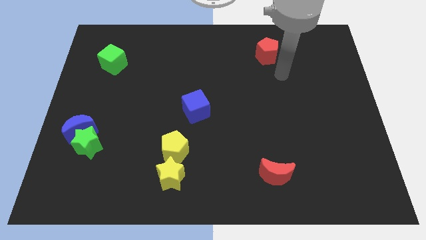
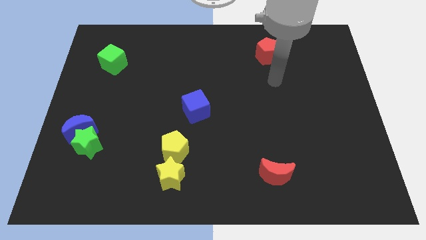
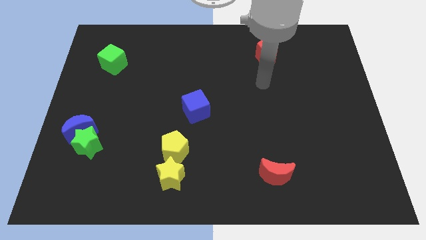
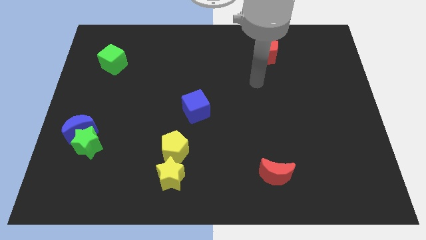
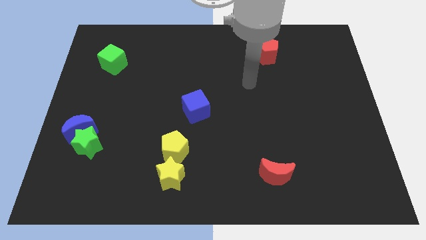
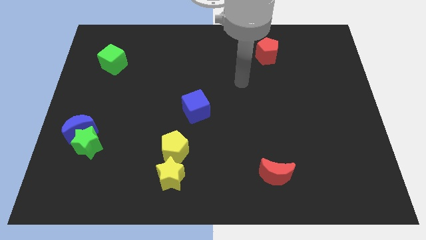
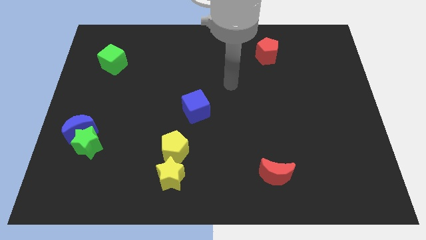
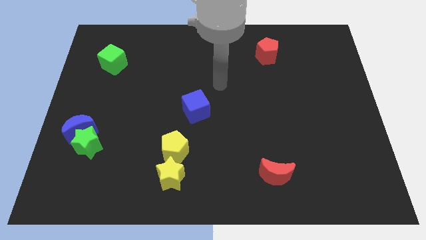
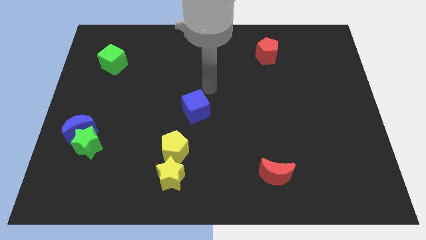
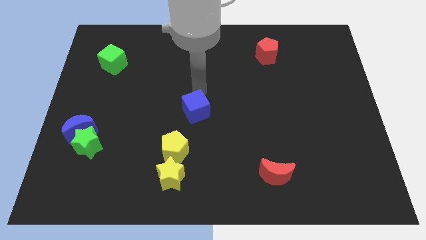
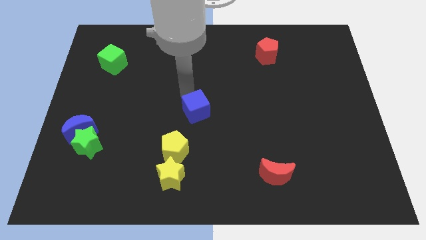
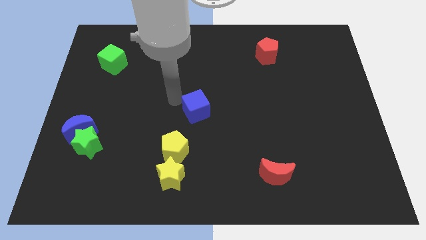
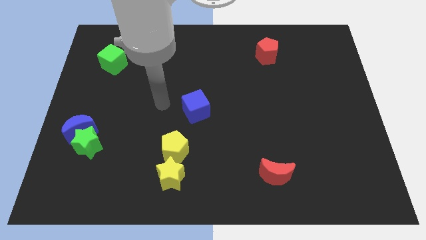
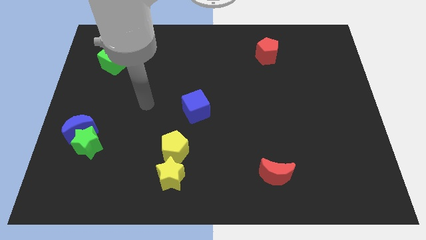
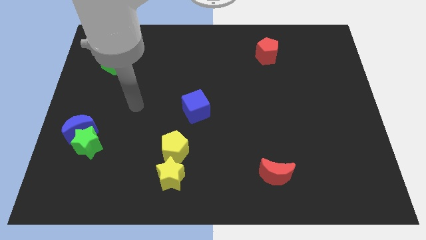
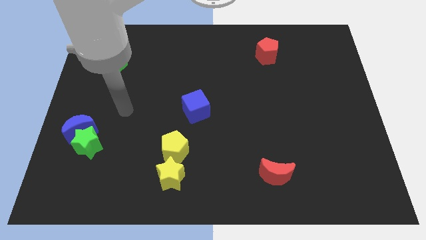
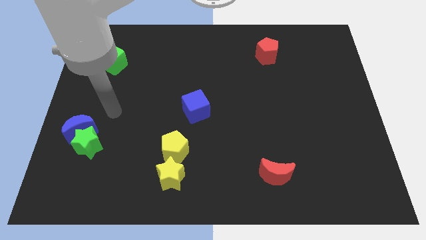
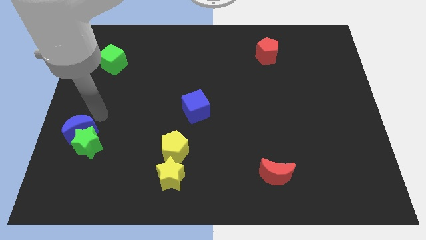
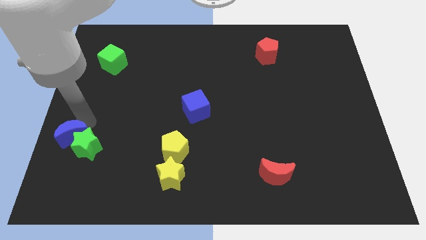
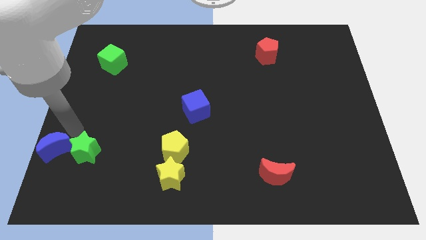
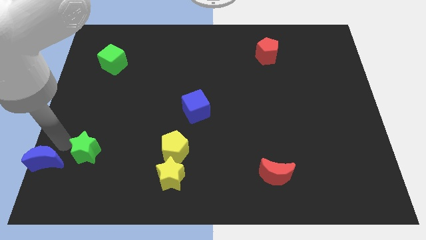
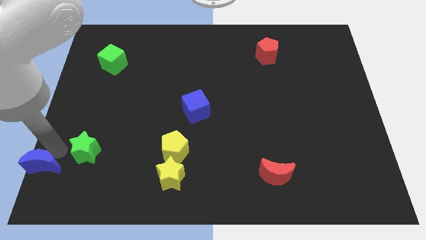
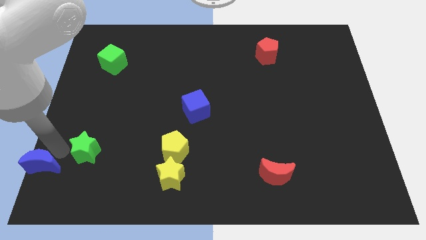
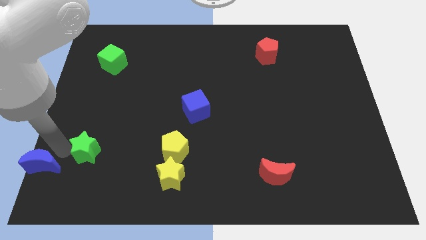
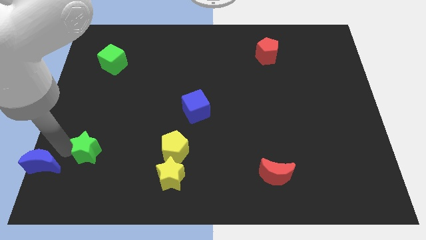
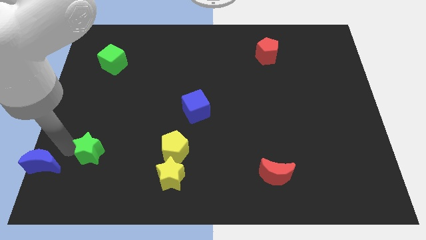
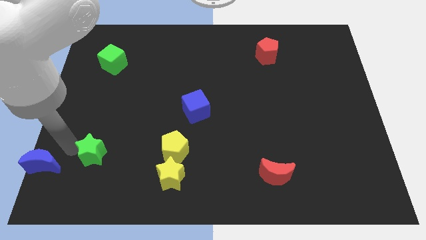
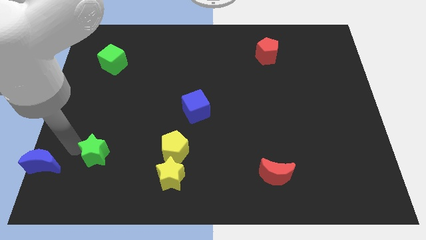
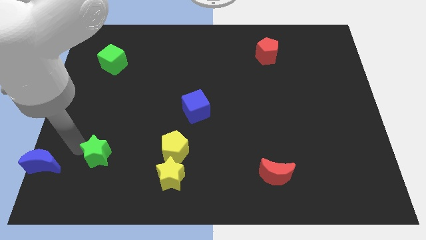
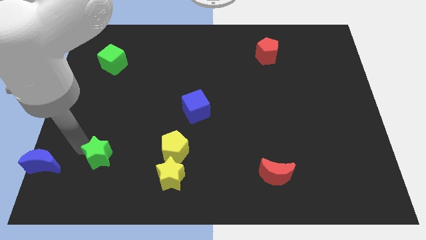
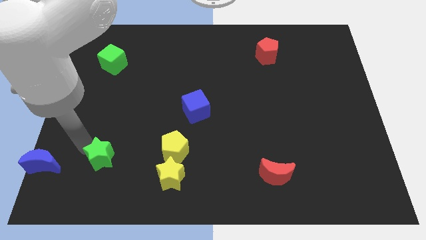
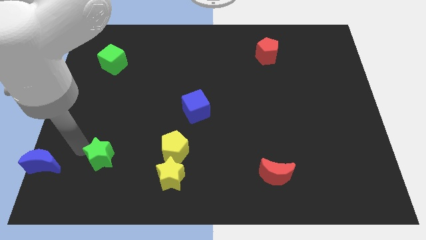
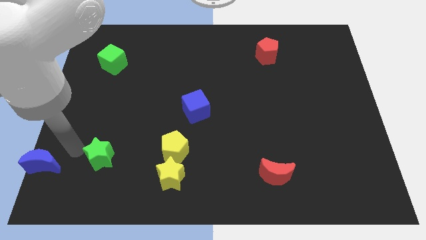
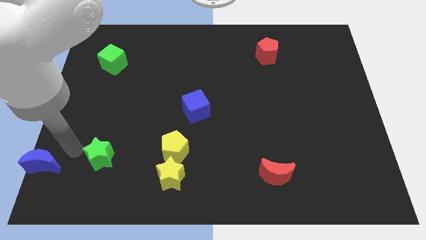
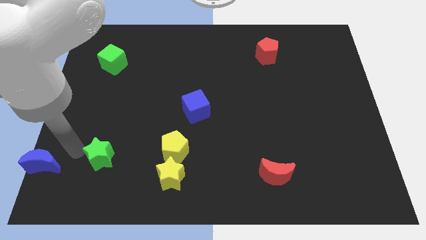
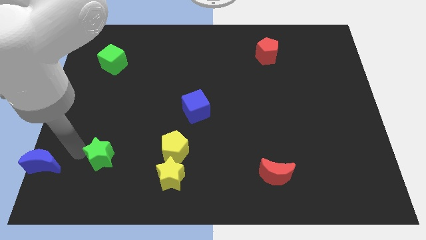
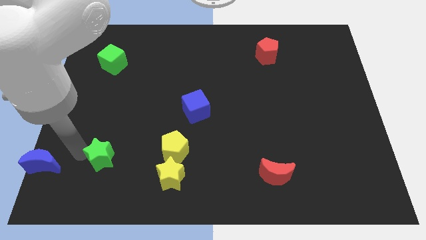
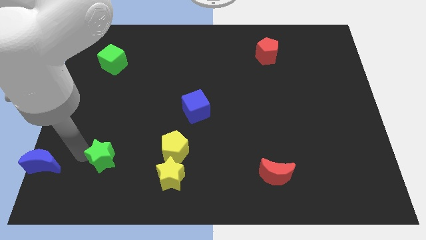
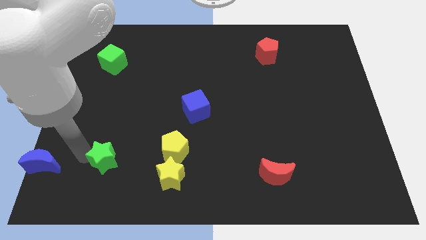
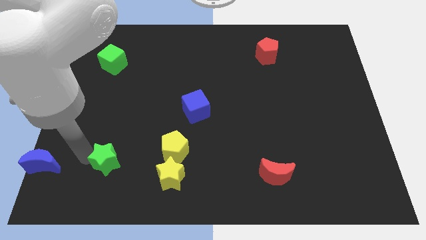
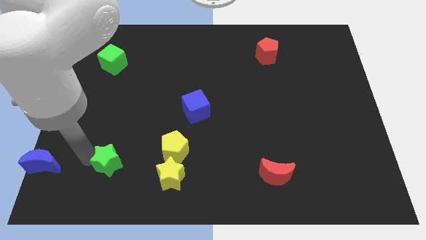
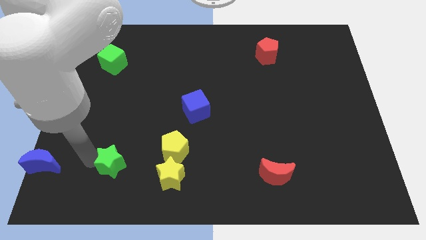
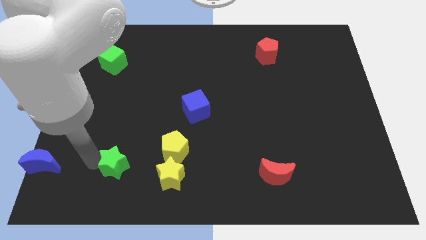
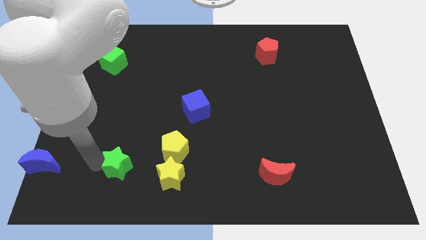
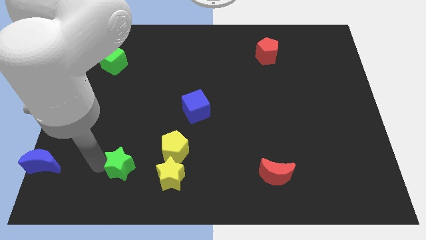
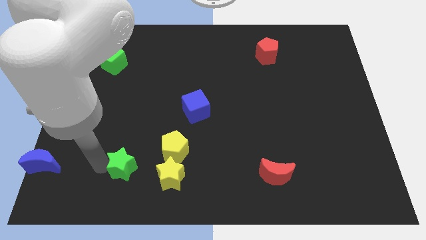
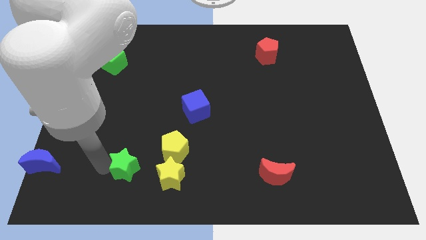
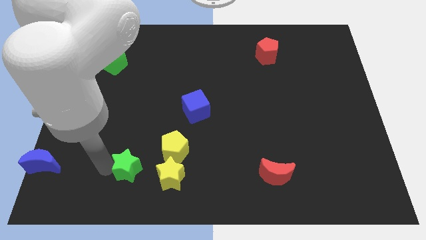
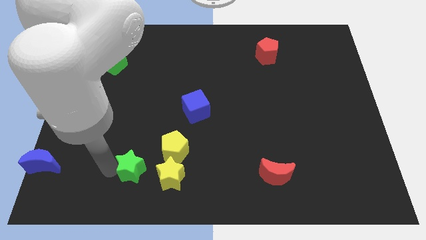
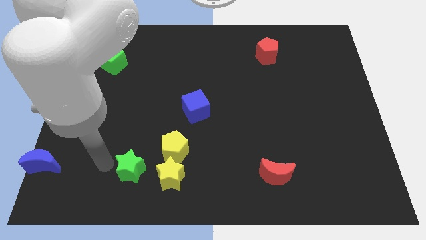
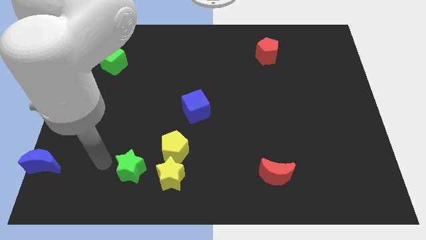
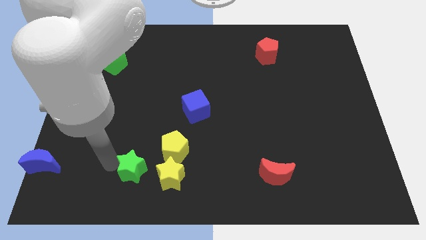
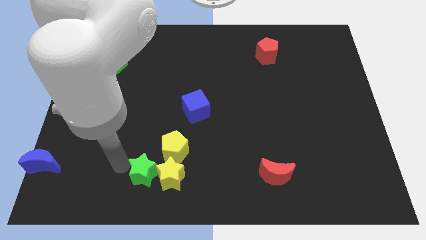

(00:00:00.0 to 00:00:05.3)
push the green star towards the yellow star

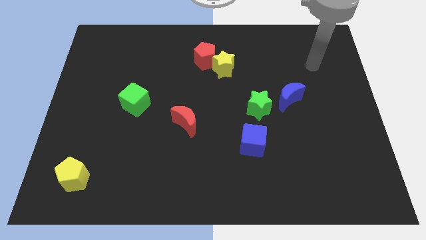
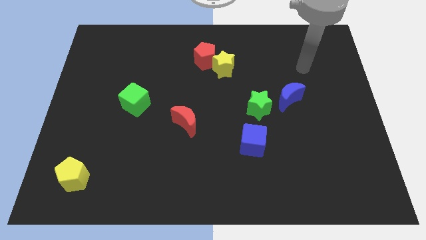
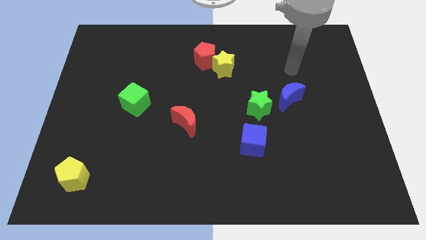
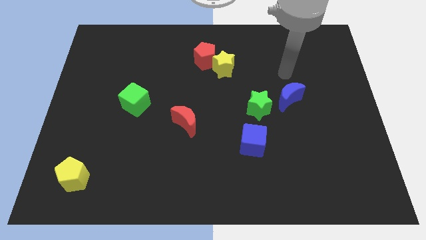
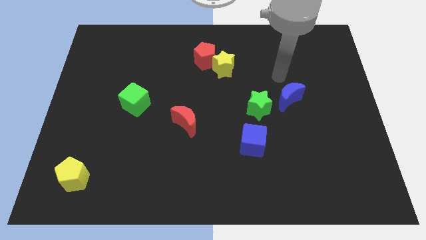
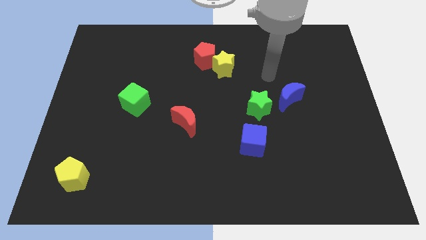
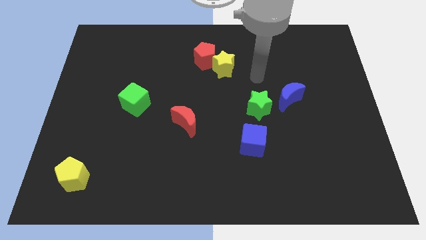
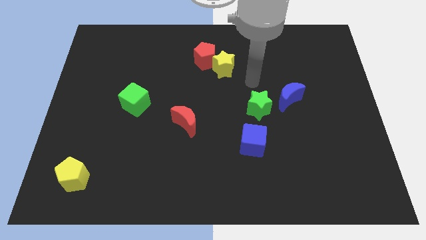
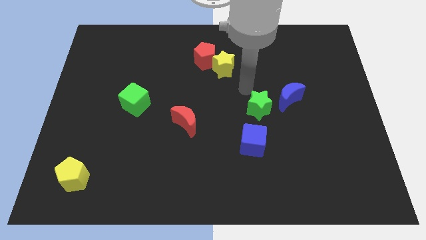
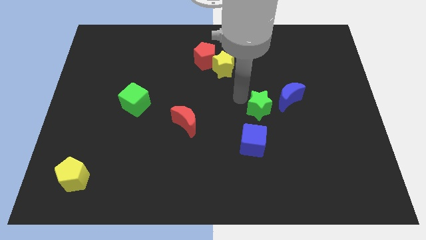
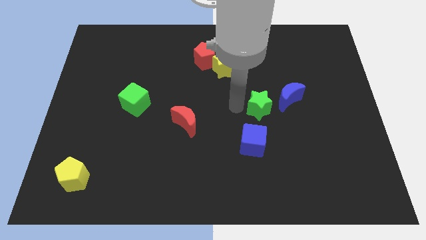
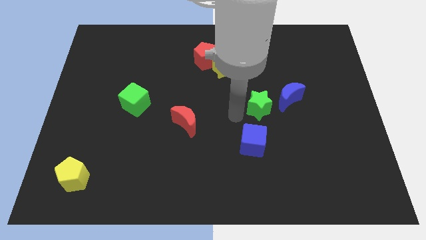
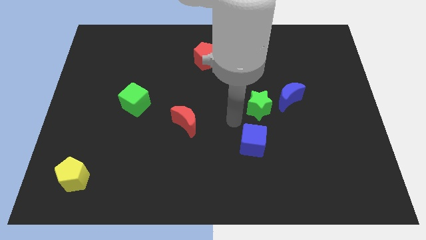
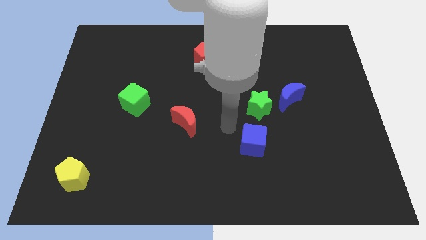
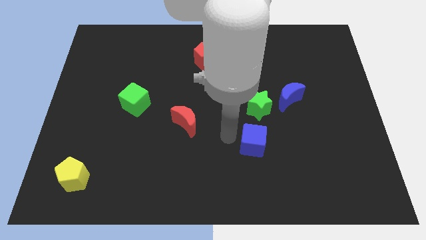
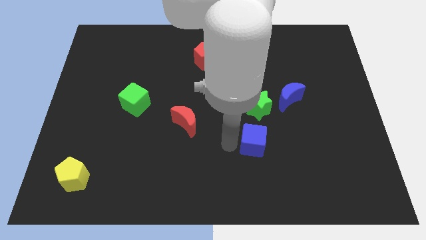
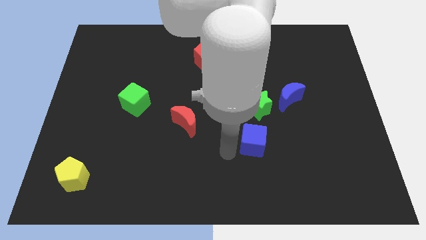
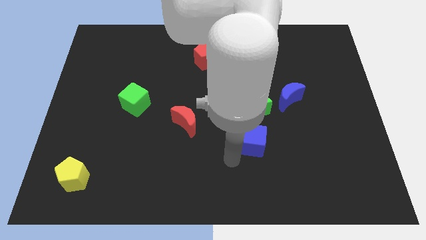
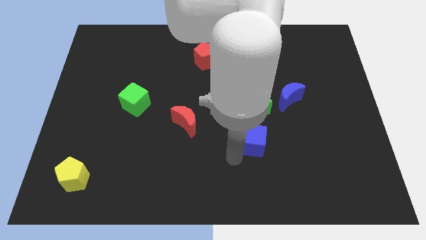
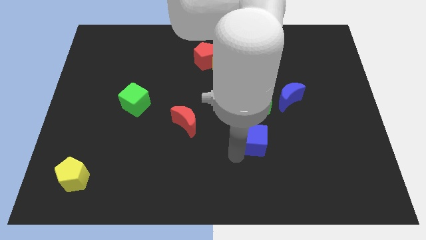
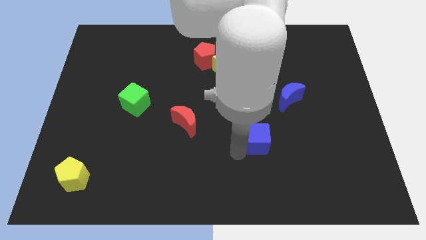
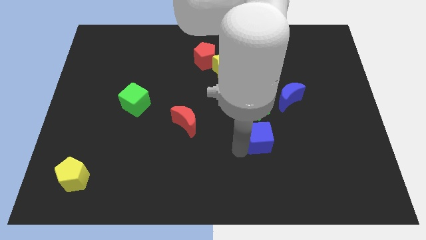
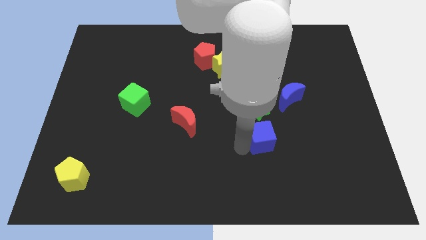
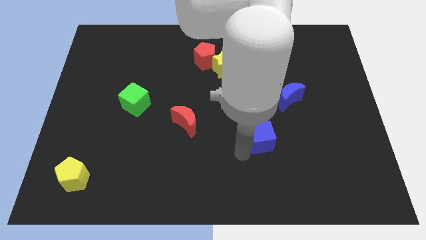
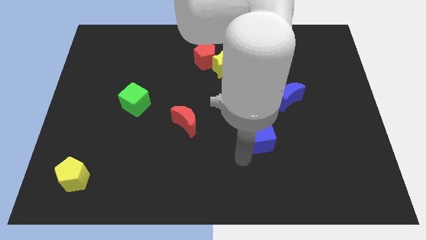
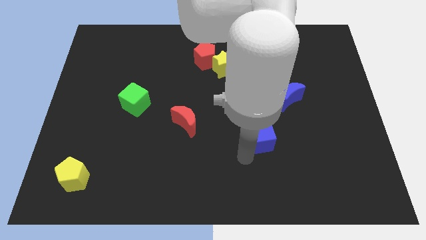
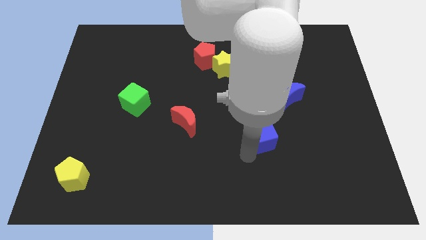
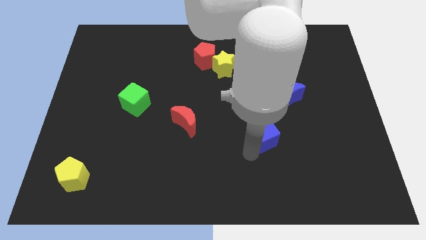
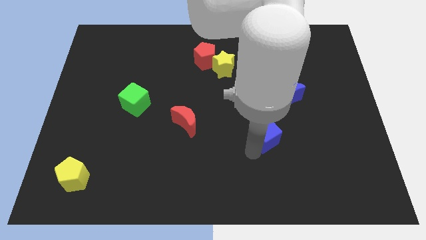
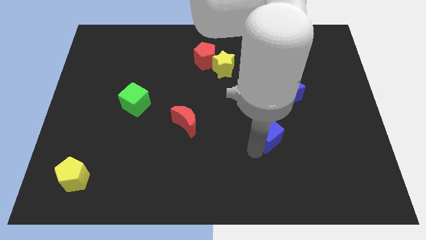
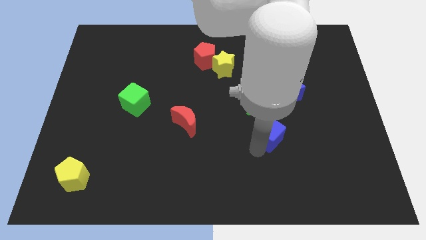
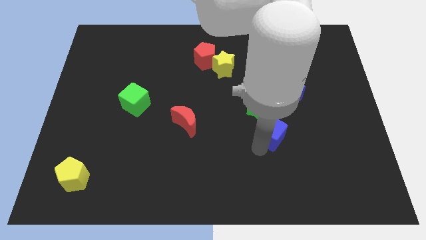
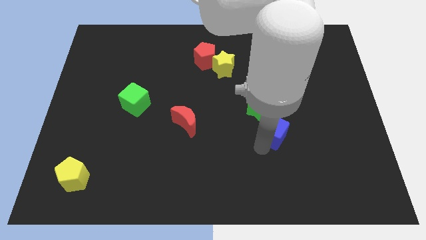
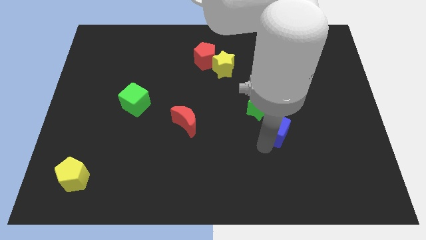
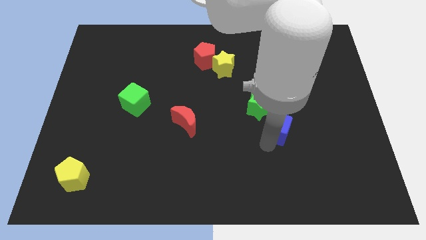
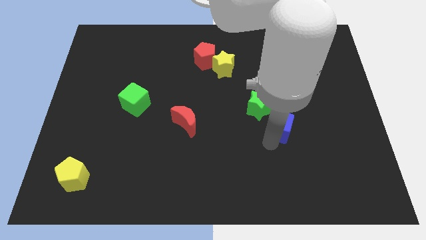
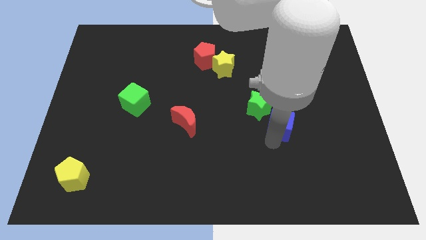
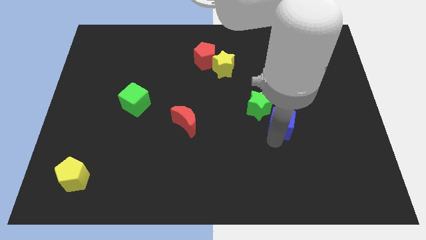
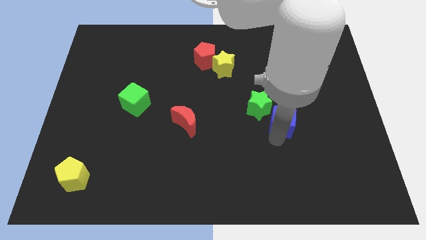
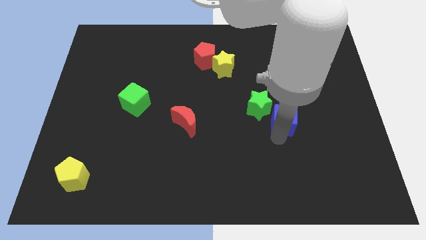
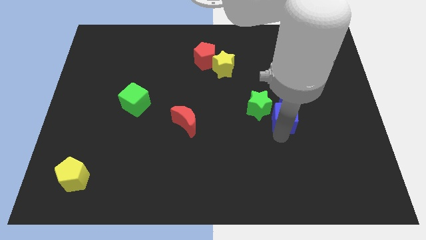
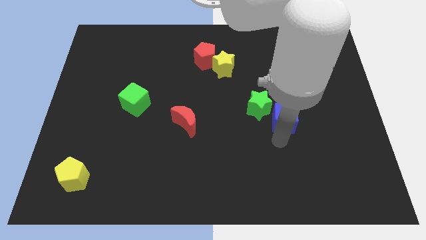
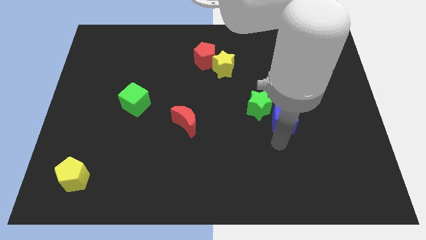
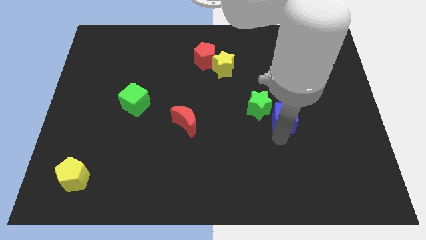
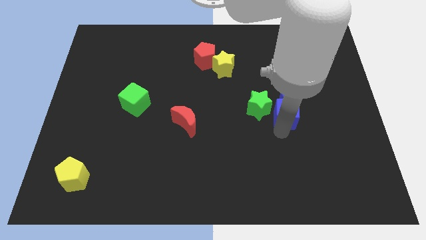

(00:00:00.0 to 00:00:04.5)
push the blue cube next to the blue moon
